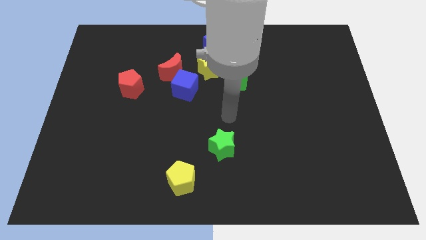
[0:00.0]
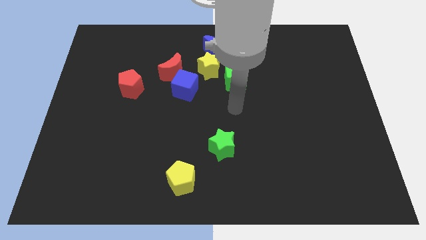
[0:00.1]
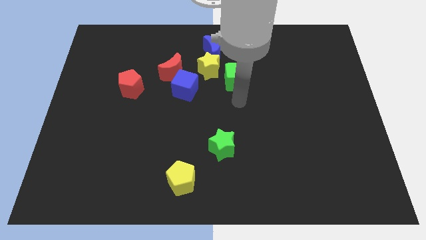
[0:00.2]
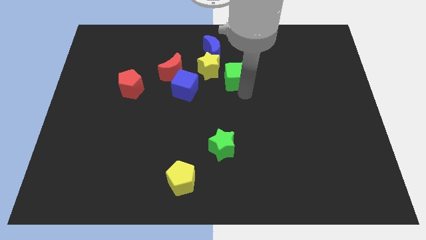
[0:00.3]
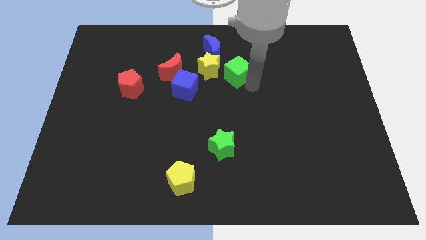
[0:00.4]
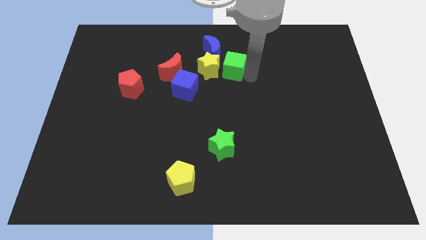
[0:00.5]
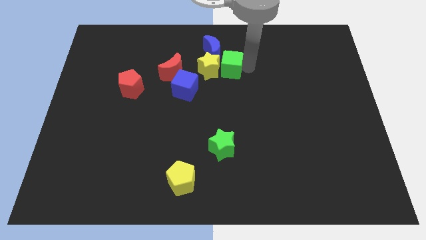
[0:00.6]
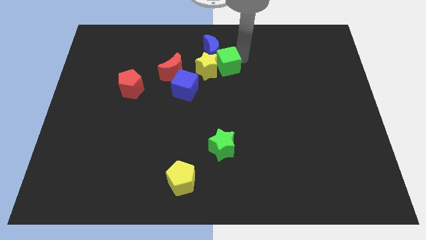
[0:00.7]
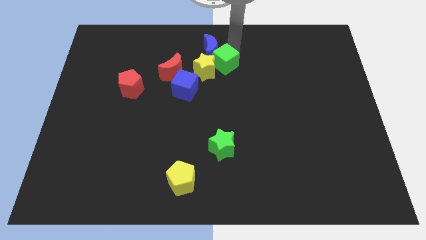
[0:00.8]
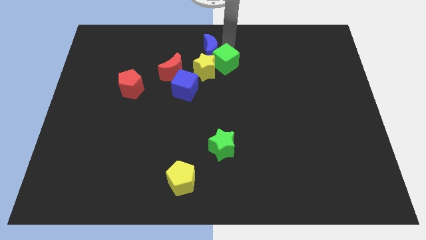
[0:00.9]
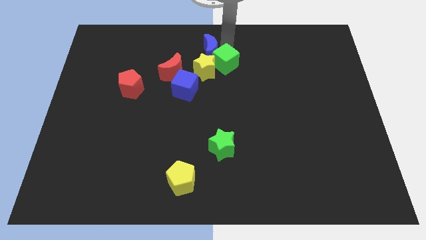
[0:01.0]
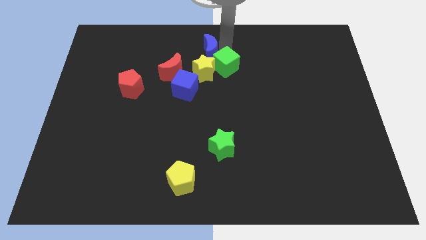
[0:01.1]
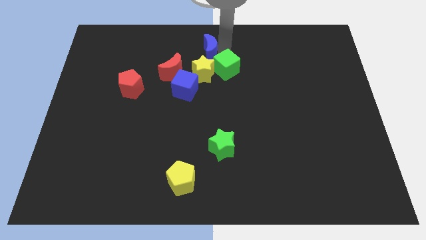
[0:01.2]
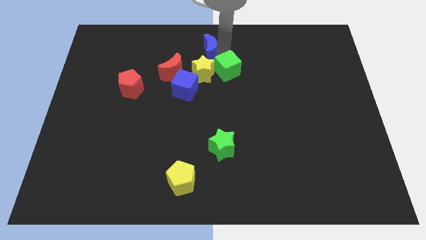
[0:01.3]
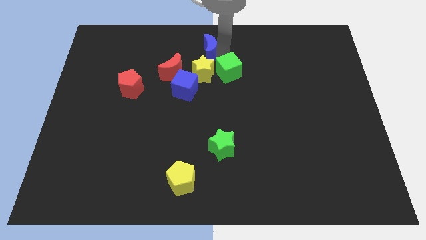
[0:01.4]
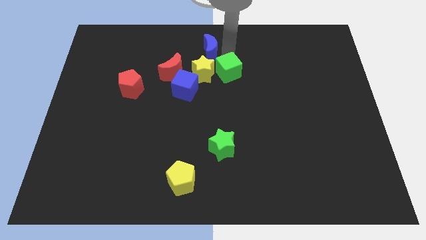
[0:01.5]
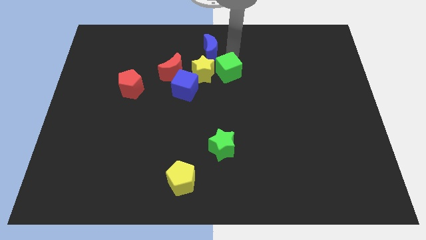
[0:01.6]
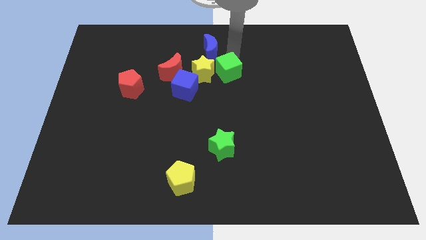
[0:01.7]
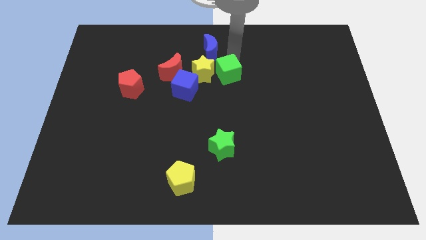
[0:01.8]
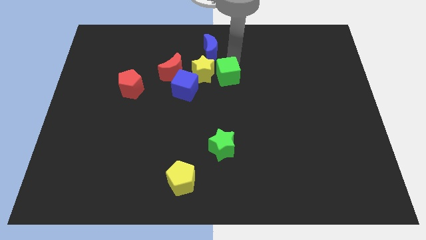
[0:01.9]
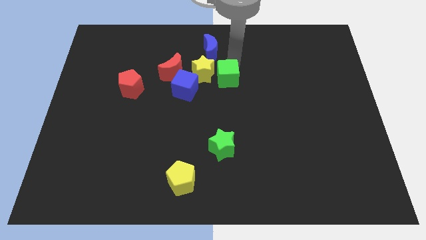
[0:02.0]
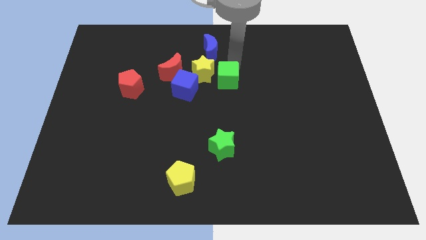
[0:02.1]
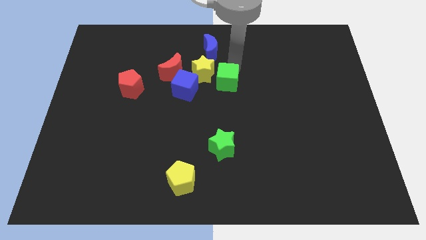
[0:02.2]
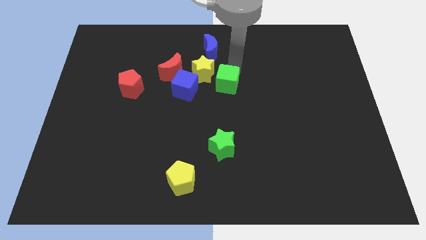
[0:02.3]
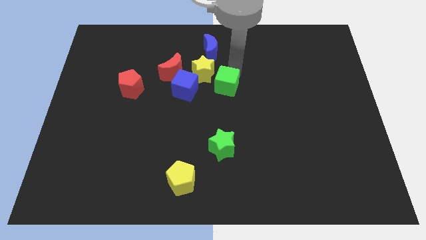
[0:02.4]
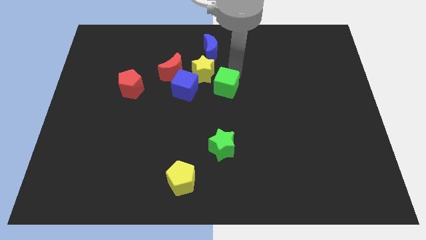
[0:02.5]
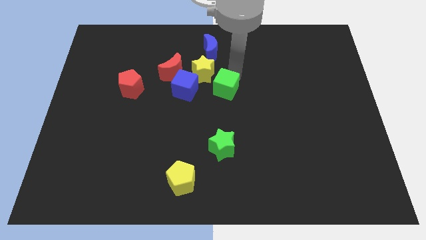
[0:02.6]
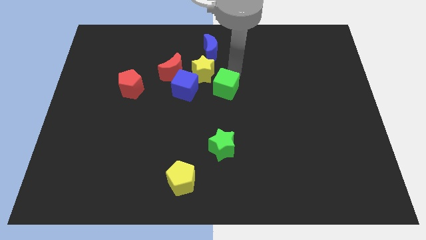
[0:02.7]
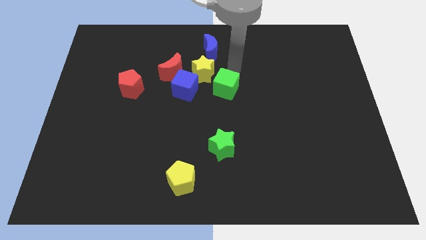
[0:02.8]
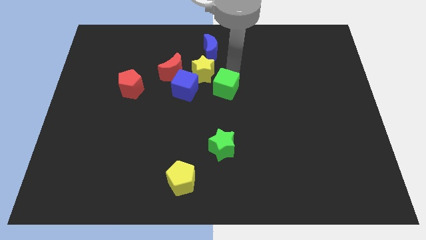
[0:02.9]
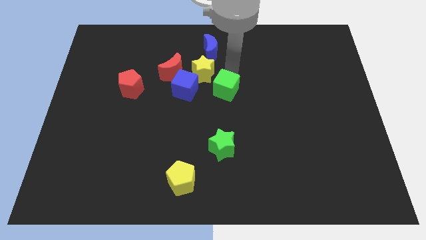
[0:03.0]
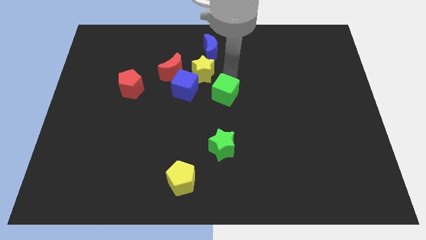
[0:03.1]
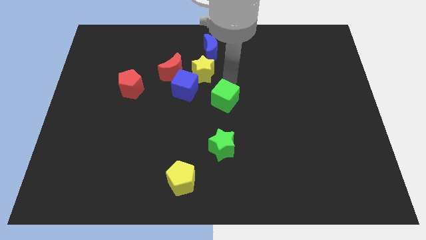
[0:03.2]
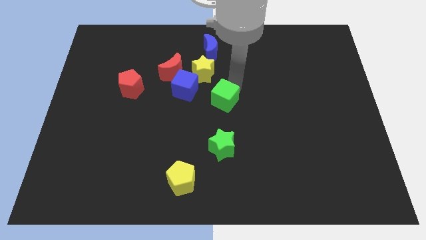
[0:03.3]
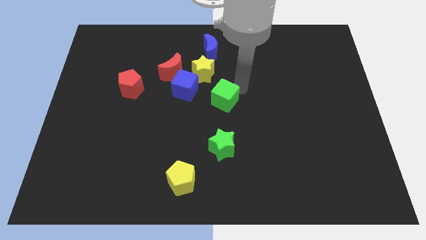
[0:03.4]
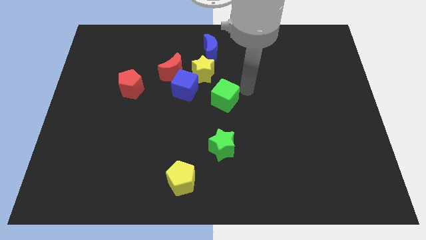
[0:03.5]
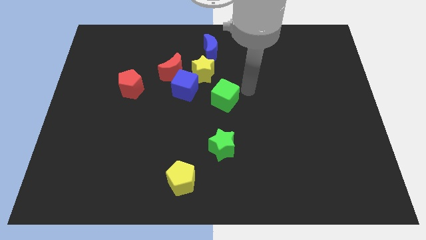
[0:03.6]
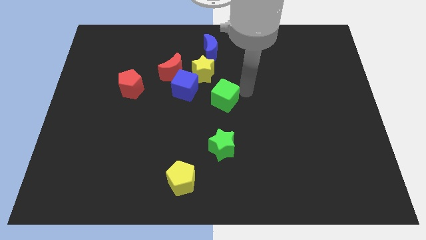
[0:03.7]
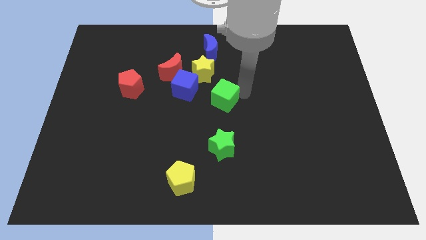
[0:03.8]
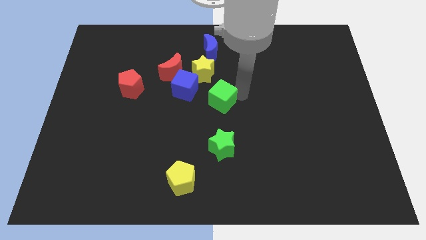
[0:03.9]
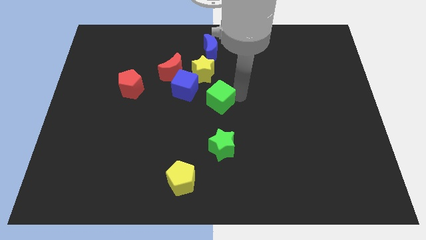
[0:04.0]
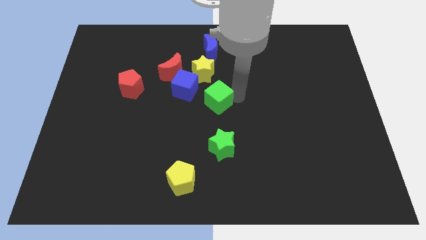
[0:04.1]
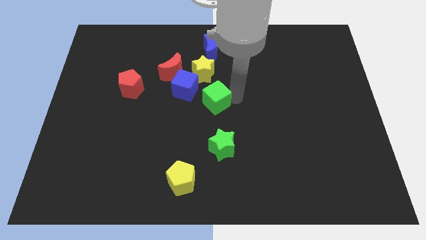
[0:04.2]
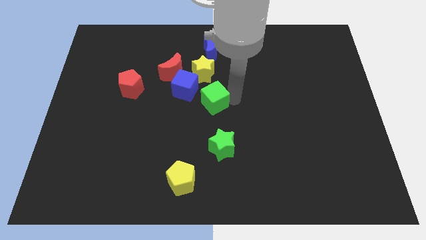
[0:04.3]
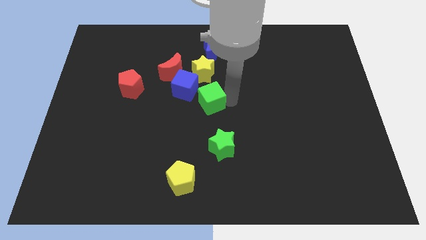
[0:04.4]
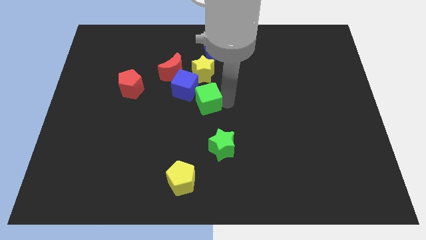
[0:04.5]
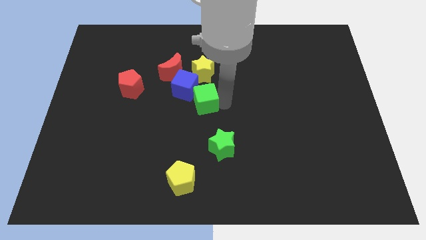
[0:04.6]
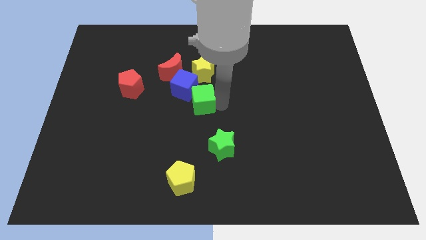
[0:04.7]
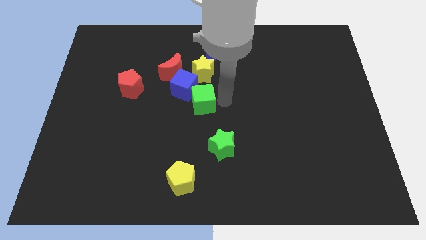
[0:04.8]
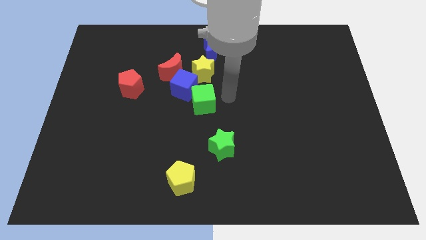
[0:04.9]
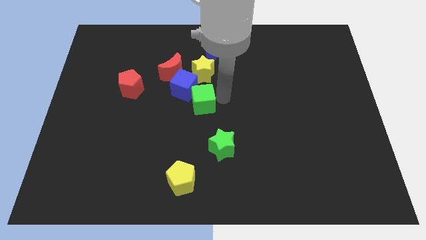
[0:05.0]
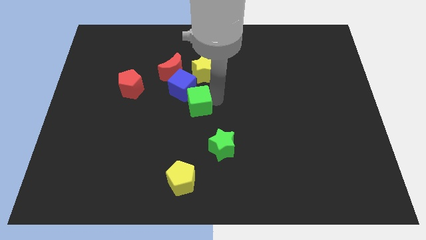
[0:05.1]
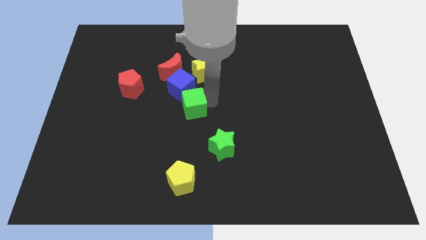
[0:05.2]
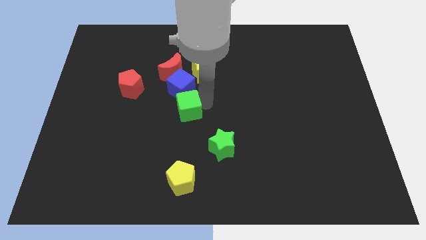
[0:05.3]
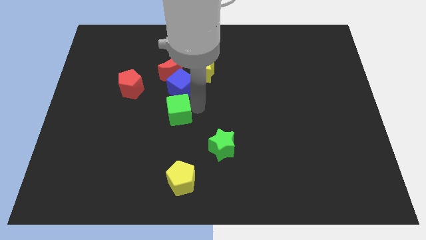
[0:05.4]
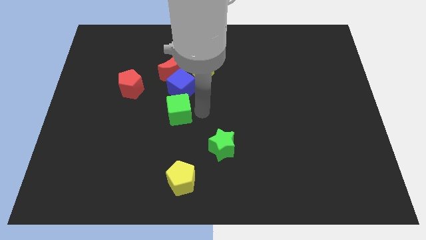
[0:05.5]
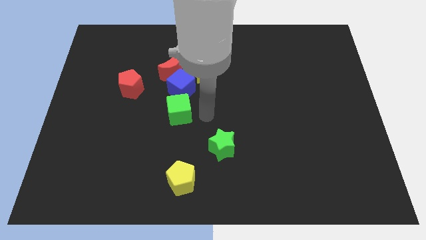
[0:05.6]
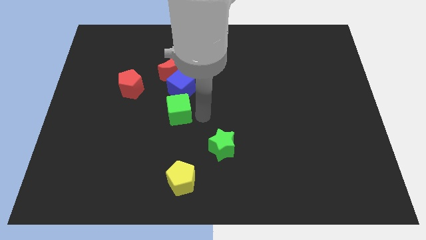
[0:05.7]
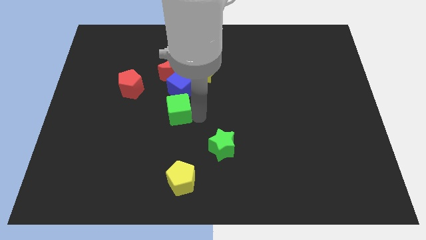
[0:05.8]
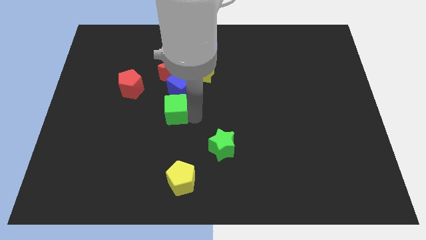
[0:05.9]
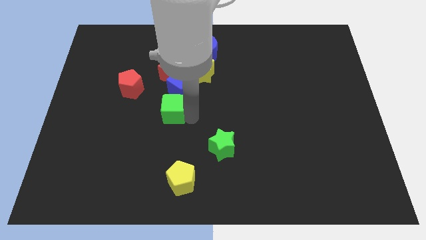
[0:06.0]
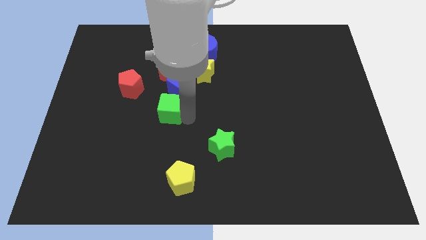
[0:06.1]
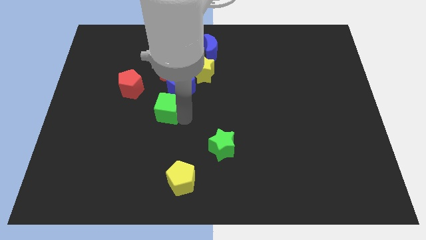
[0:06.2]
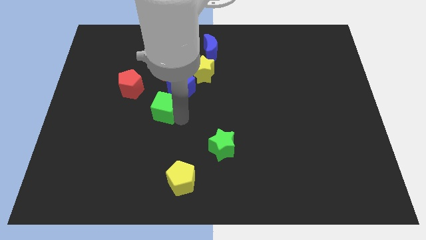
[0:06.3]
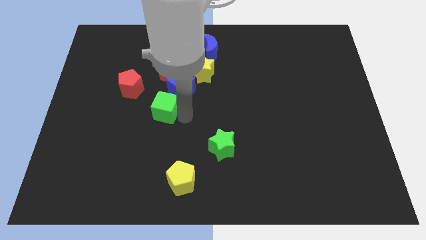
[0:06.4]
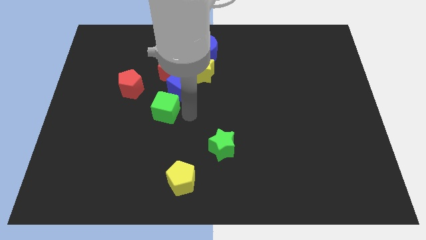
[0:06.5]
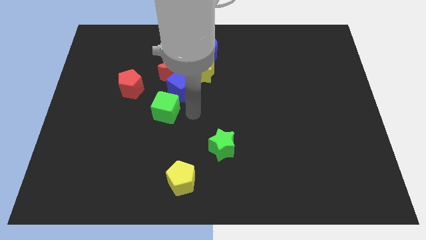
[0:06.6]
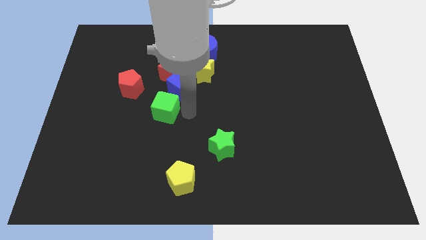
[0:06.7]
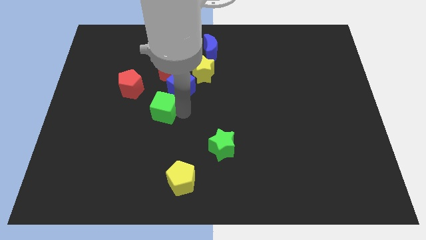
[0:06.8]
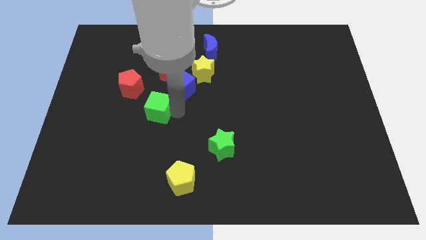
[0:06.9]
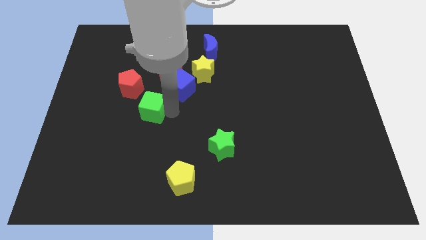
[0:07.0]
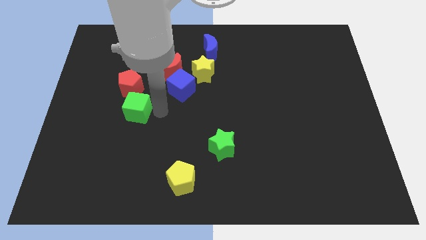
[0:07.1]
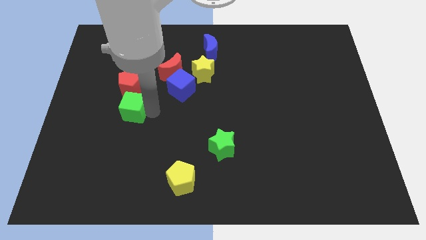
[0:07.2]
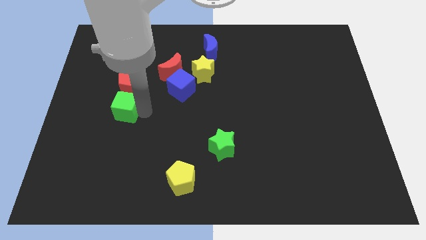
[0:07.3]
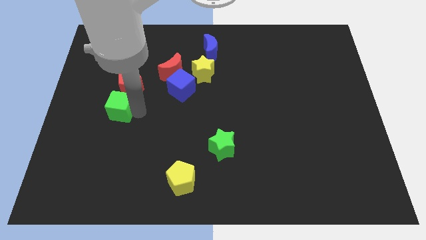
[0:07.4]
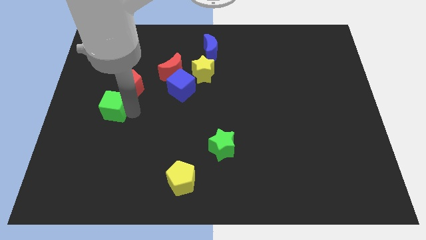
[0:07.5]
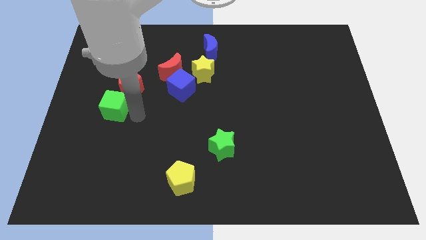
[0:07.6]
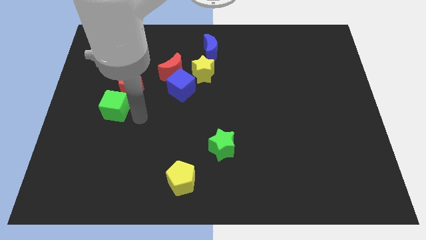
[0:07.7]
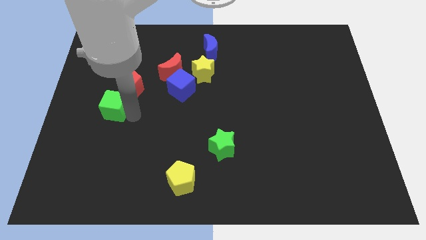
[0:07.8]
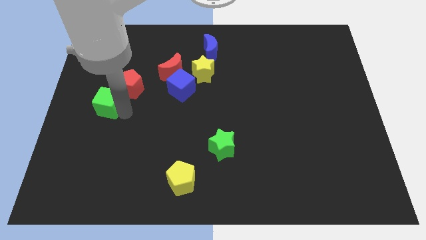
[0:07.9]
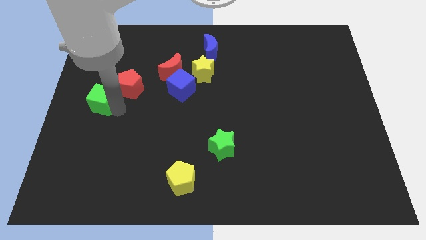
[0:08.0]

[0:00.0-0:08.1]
push the green cube to the center left
